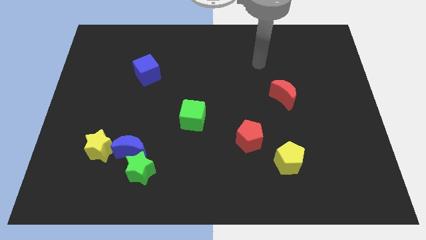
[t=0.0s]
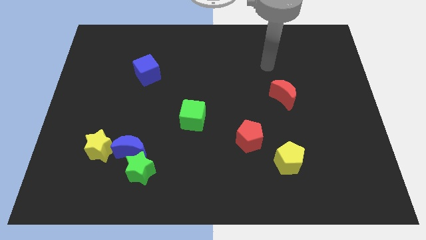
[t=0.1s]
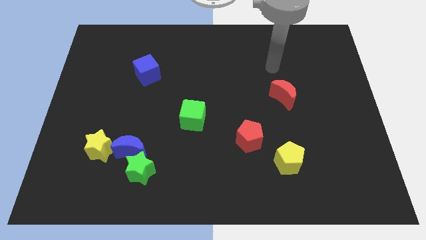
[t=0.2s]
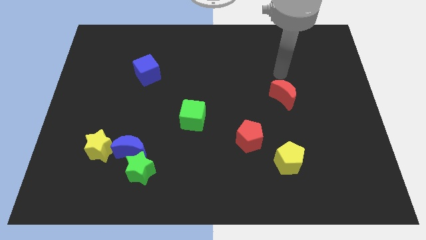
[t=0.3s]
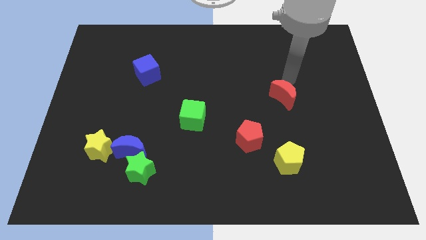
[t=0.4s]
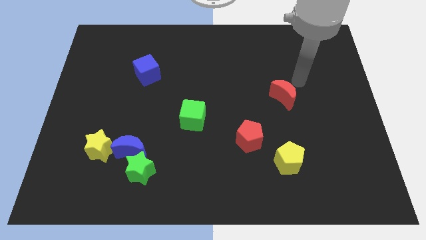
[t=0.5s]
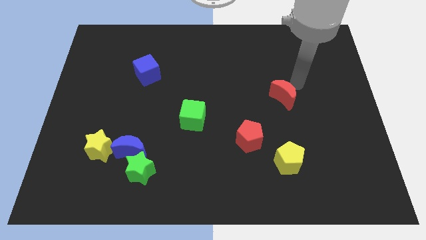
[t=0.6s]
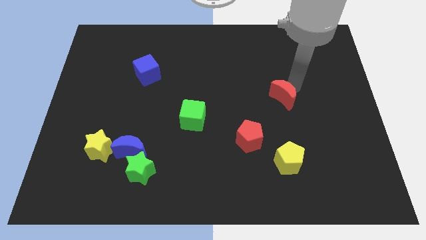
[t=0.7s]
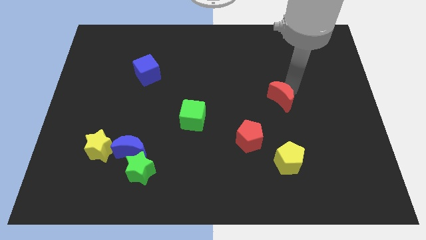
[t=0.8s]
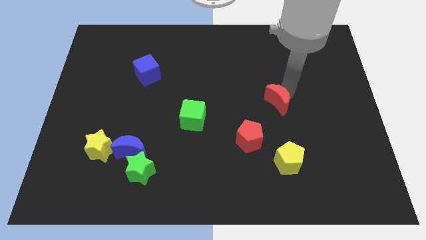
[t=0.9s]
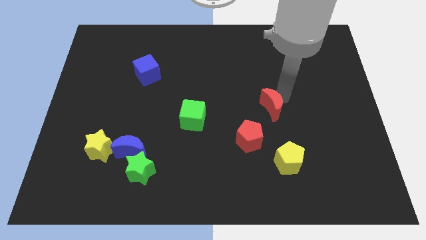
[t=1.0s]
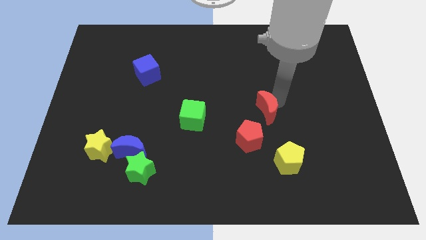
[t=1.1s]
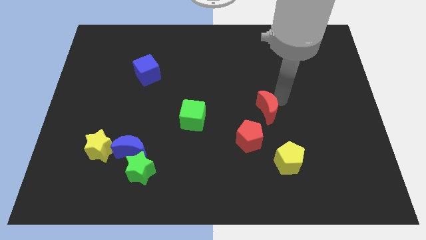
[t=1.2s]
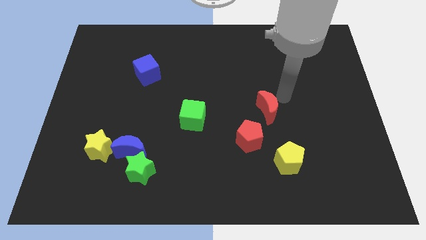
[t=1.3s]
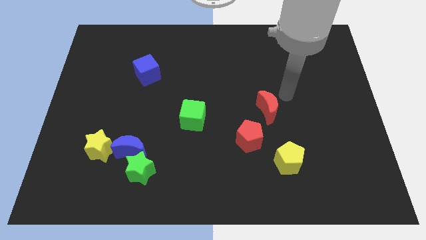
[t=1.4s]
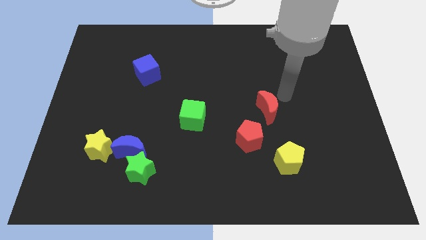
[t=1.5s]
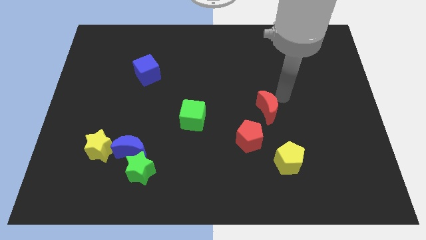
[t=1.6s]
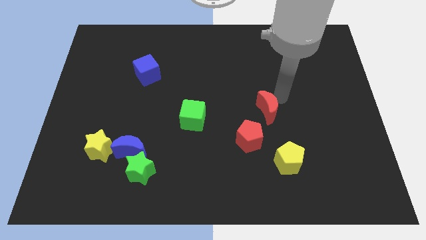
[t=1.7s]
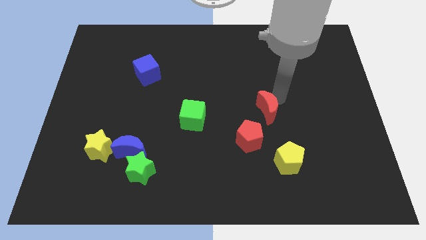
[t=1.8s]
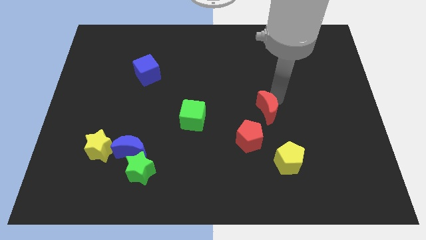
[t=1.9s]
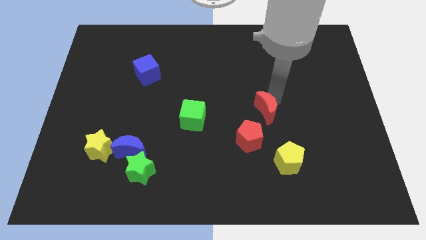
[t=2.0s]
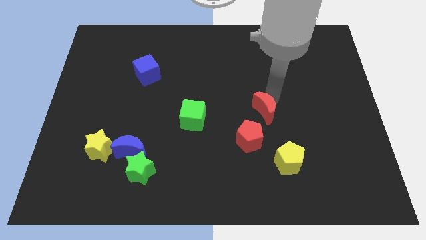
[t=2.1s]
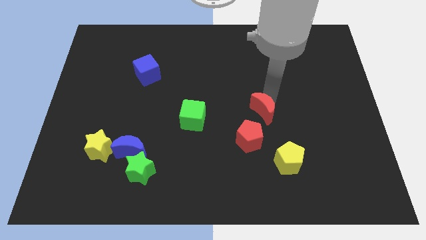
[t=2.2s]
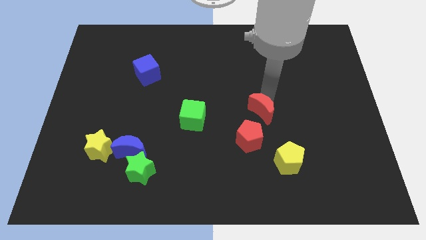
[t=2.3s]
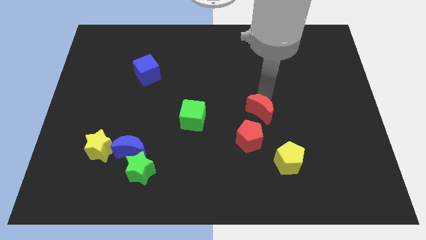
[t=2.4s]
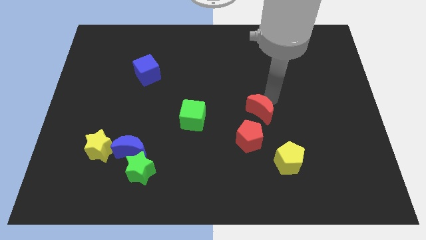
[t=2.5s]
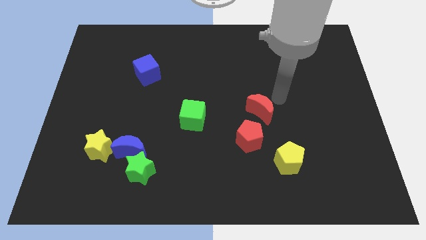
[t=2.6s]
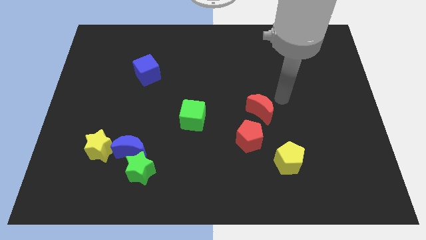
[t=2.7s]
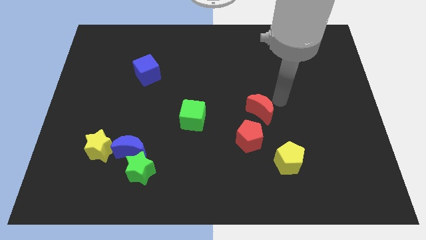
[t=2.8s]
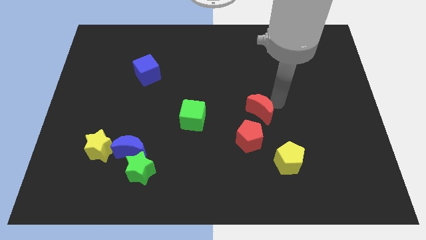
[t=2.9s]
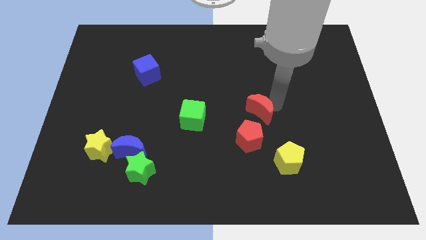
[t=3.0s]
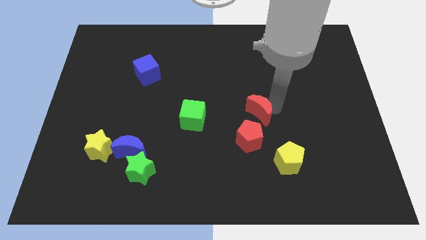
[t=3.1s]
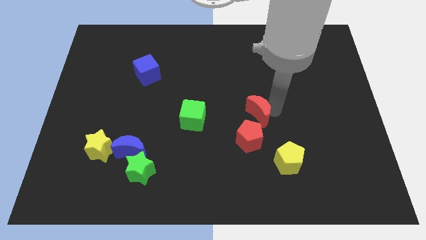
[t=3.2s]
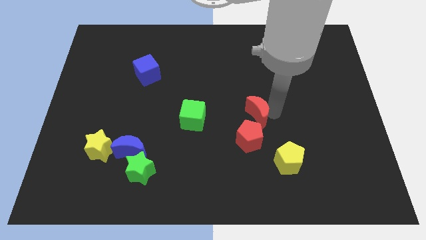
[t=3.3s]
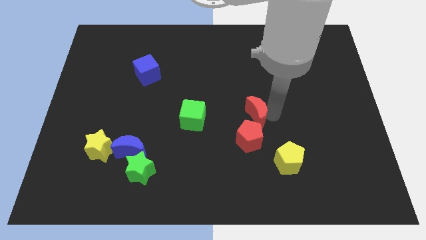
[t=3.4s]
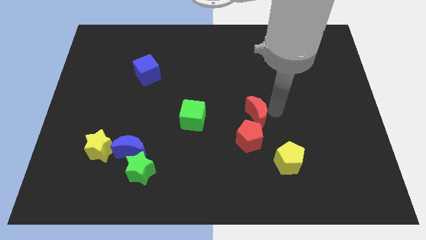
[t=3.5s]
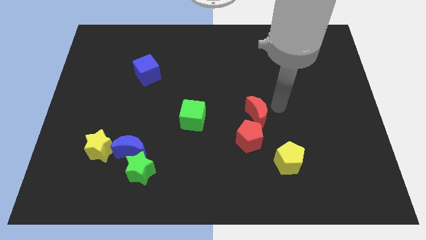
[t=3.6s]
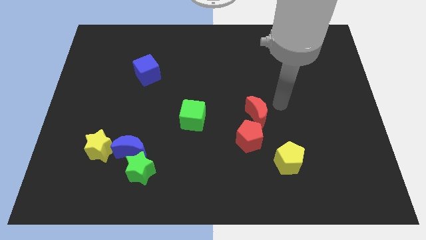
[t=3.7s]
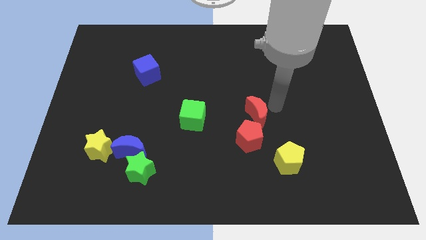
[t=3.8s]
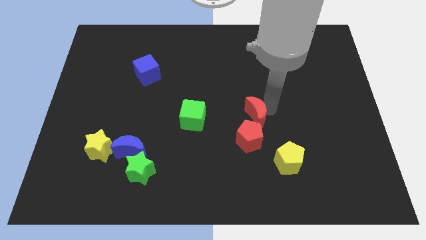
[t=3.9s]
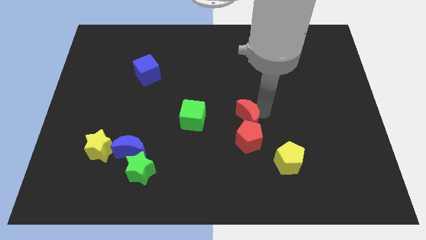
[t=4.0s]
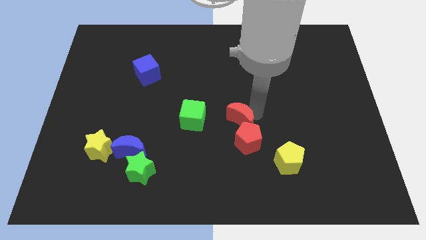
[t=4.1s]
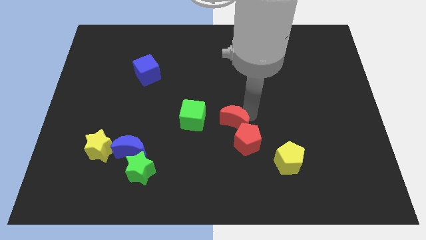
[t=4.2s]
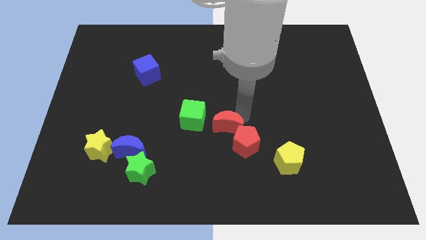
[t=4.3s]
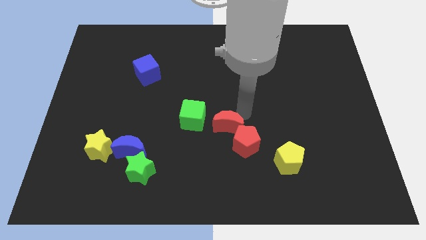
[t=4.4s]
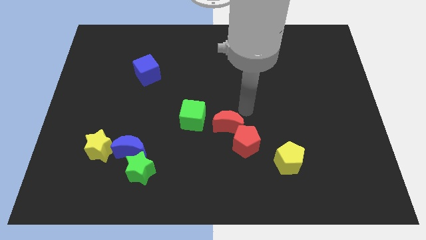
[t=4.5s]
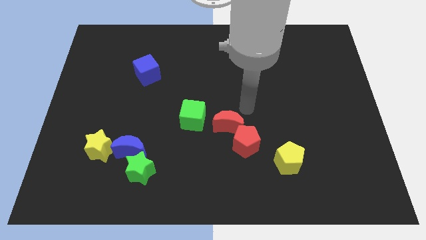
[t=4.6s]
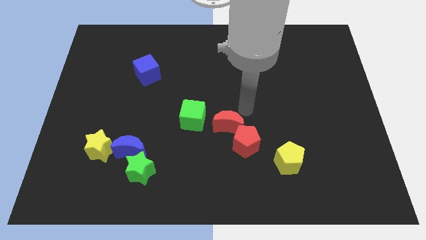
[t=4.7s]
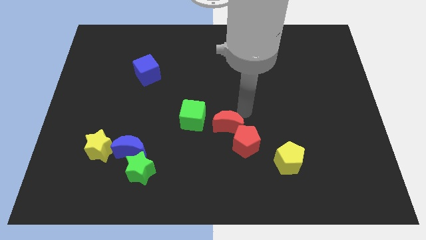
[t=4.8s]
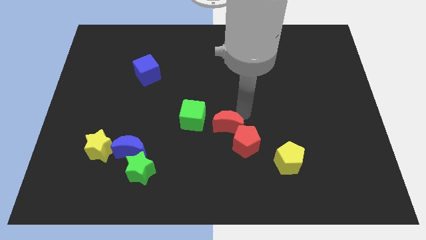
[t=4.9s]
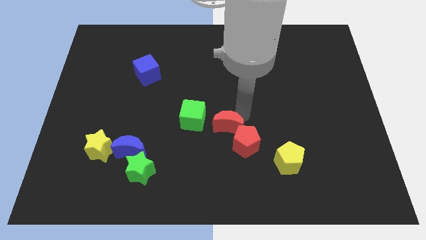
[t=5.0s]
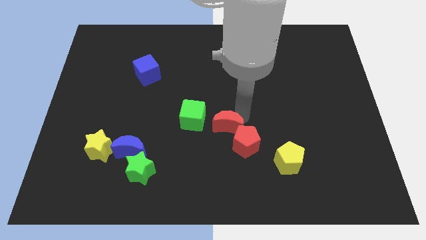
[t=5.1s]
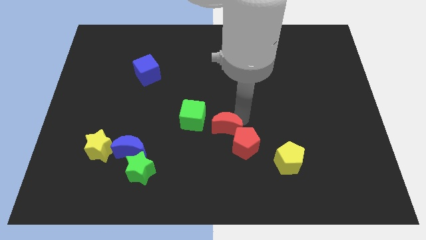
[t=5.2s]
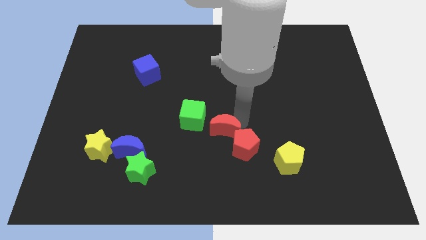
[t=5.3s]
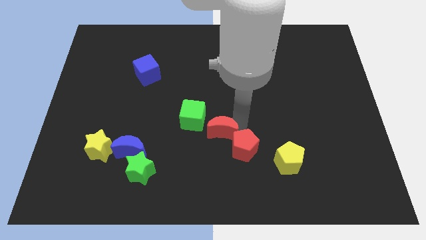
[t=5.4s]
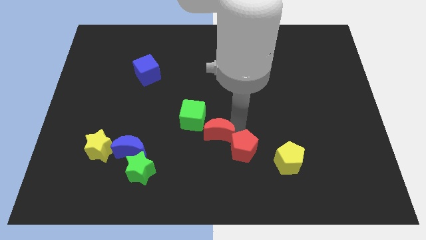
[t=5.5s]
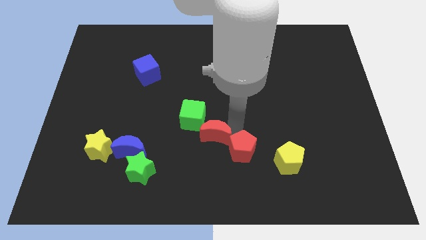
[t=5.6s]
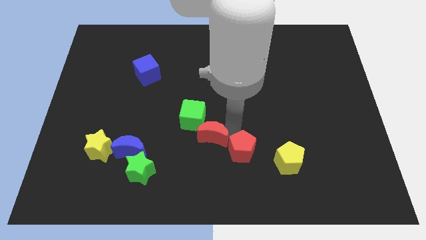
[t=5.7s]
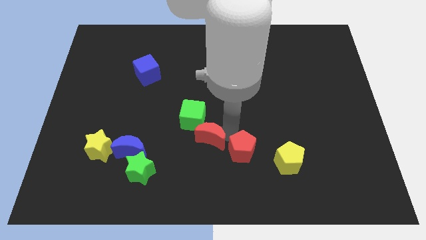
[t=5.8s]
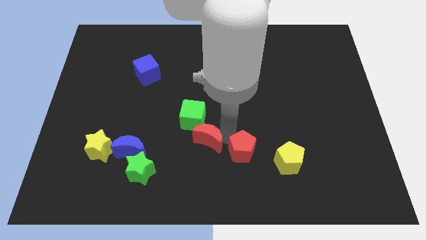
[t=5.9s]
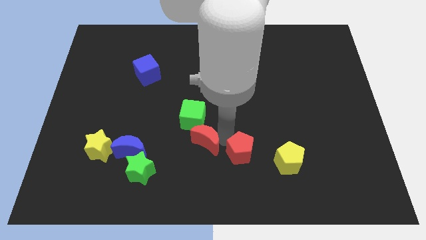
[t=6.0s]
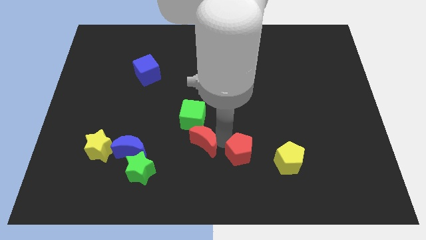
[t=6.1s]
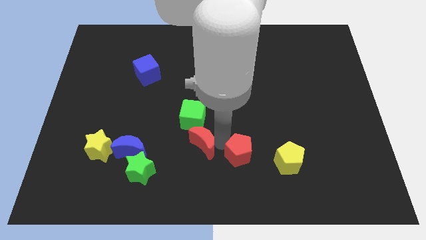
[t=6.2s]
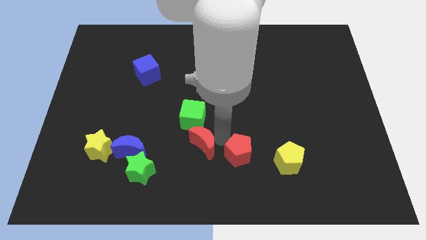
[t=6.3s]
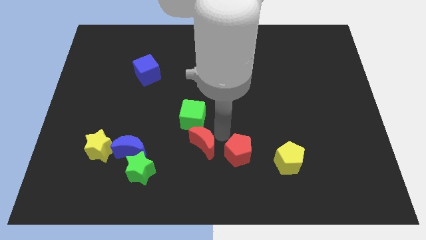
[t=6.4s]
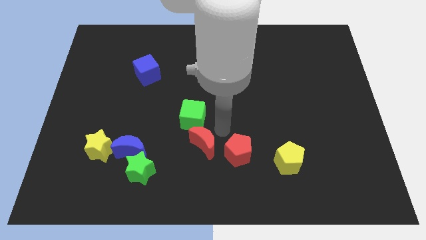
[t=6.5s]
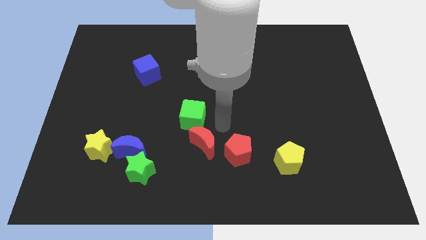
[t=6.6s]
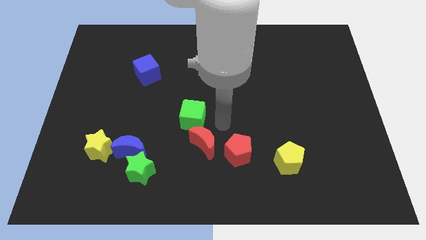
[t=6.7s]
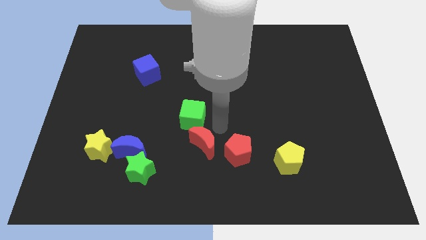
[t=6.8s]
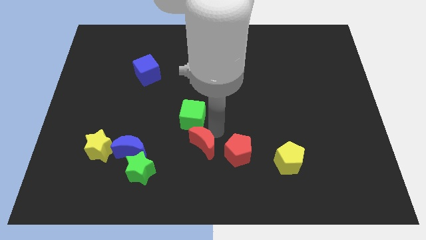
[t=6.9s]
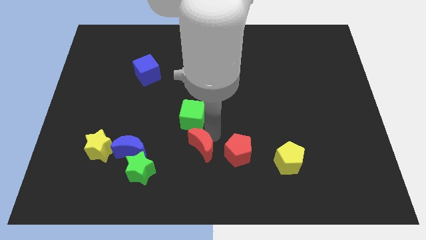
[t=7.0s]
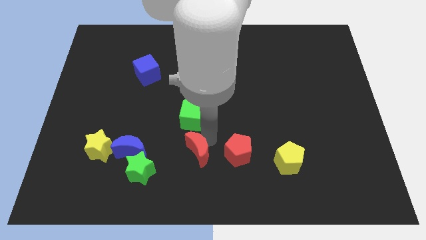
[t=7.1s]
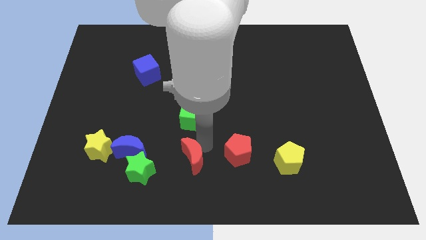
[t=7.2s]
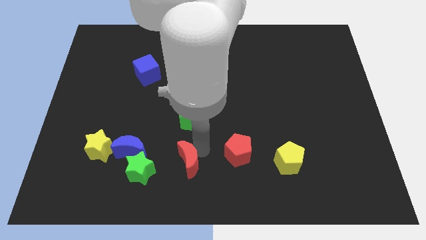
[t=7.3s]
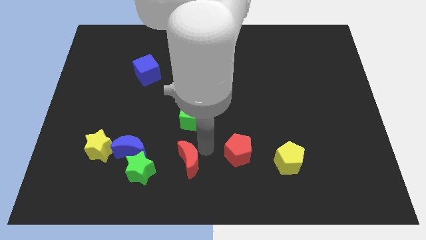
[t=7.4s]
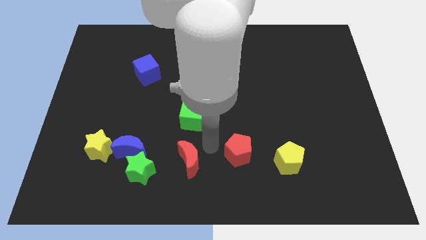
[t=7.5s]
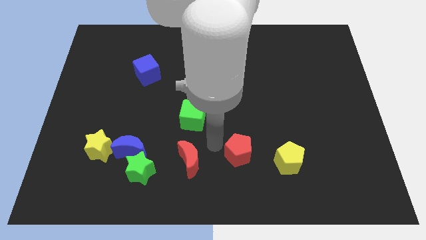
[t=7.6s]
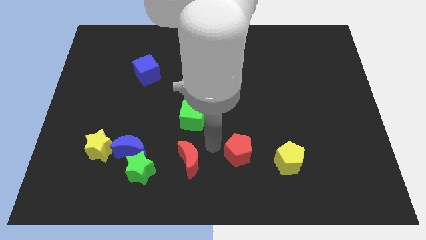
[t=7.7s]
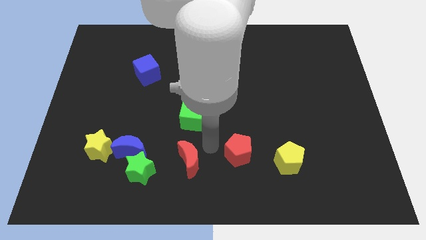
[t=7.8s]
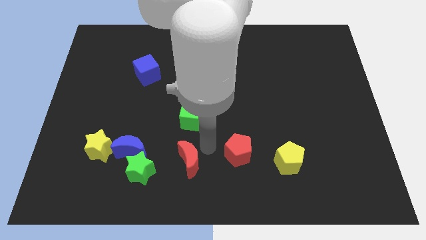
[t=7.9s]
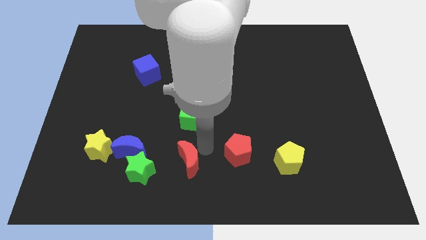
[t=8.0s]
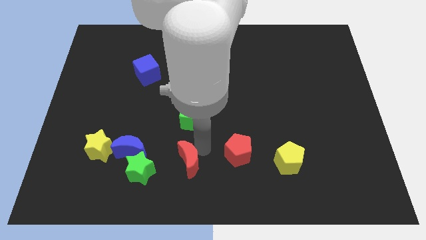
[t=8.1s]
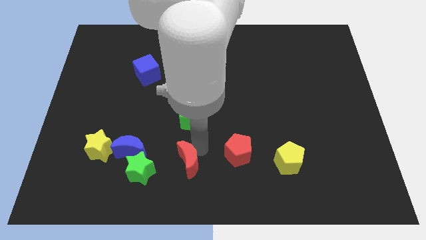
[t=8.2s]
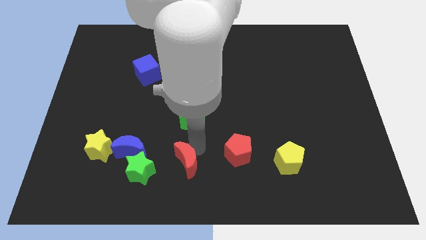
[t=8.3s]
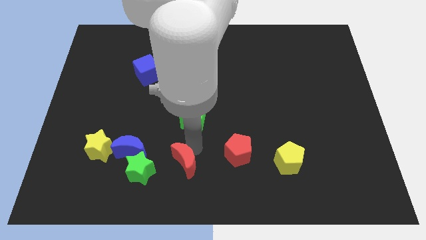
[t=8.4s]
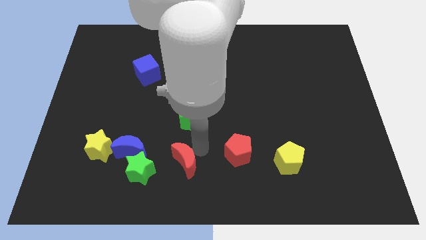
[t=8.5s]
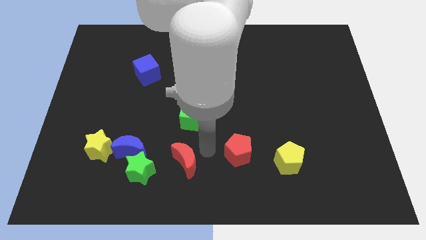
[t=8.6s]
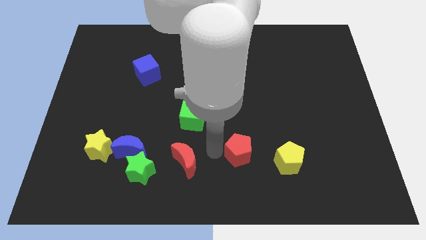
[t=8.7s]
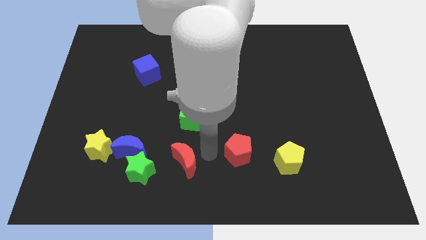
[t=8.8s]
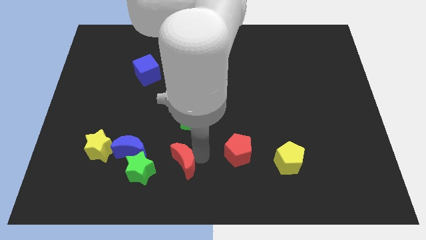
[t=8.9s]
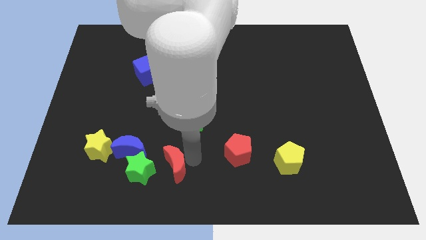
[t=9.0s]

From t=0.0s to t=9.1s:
slide the red moon to the bottom right of the blue moon
